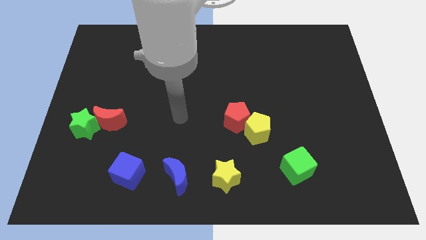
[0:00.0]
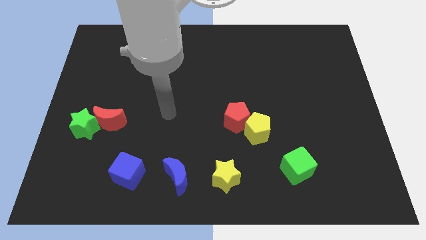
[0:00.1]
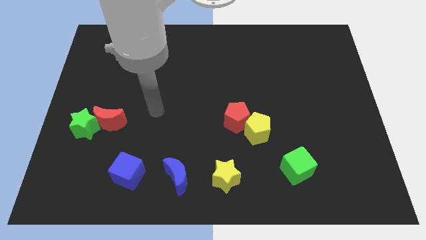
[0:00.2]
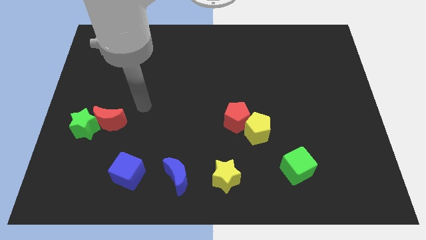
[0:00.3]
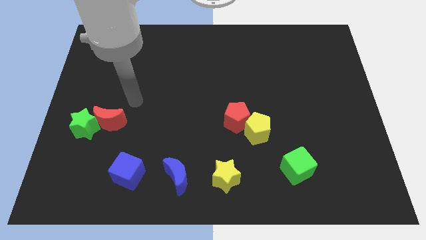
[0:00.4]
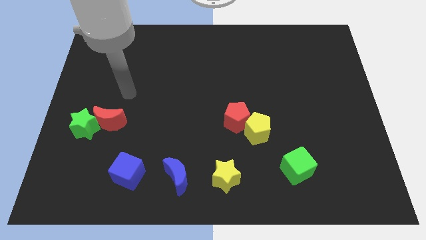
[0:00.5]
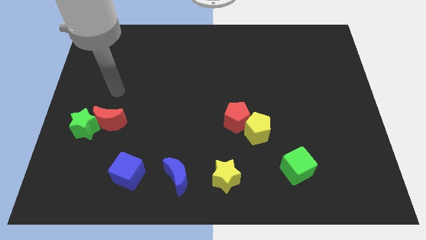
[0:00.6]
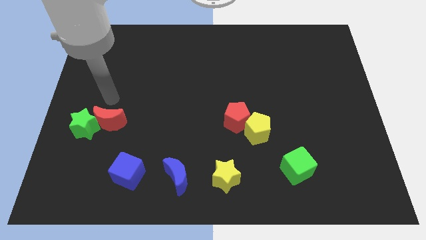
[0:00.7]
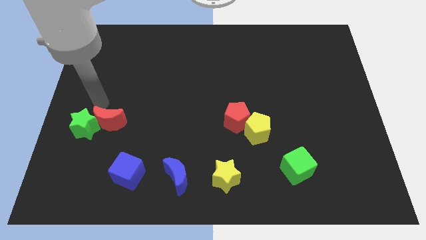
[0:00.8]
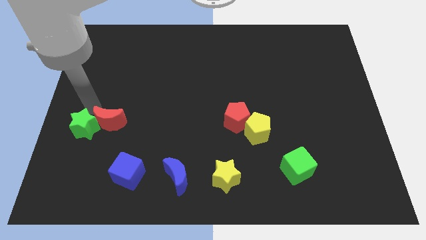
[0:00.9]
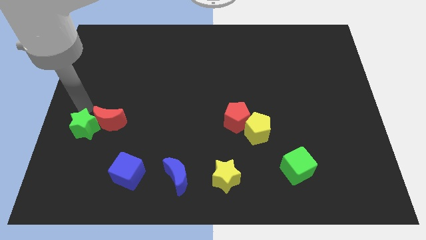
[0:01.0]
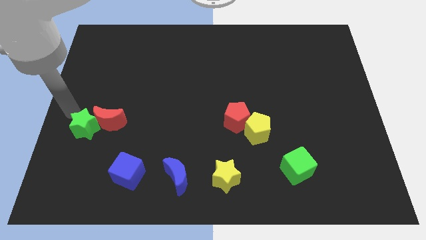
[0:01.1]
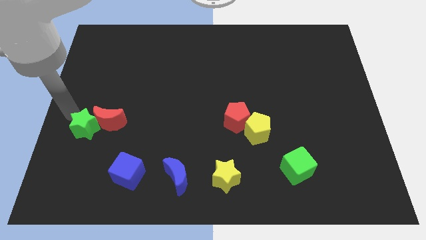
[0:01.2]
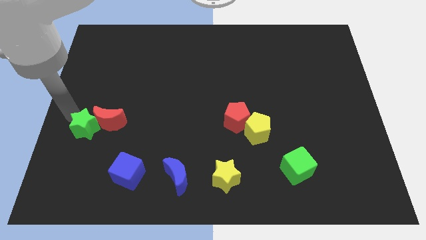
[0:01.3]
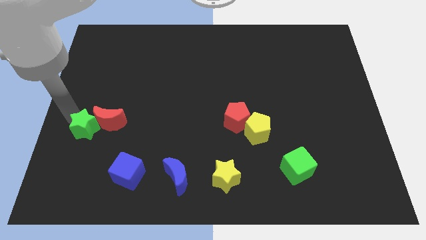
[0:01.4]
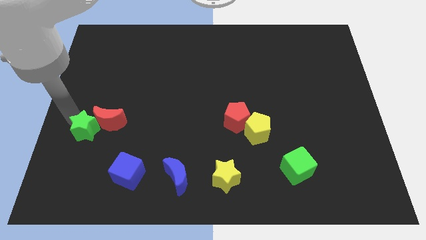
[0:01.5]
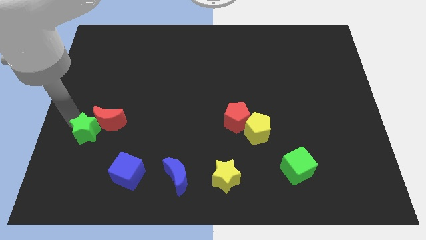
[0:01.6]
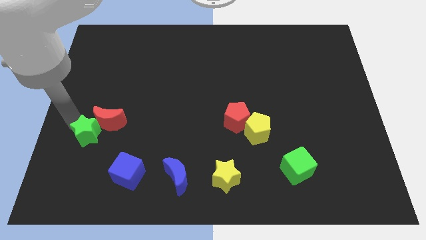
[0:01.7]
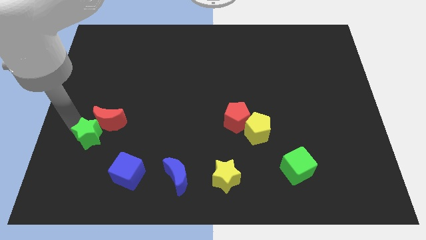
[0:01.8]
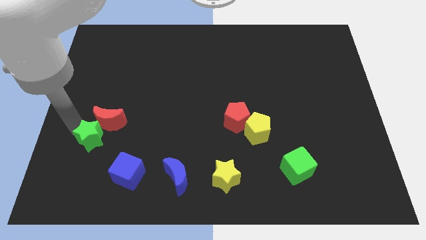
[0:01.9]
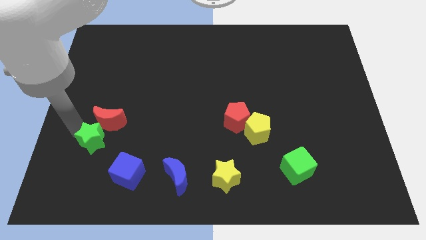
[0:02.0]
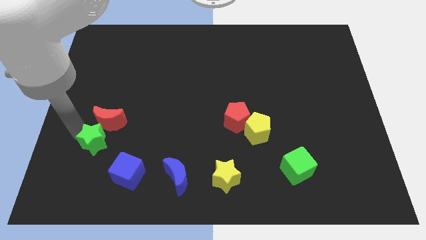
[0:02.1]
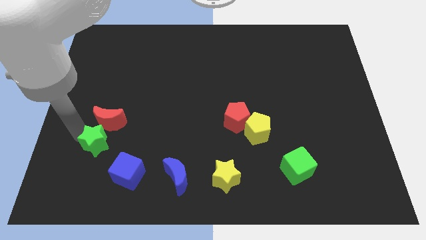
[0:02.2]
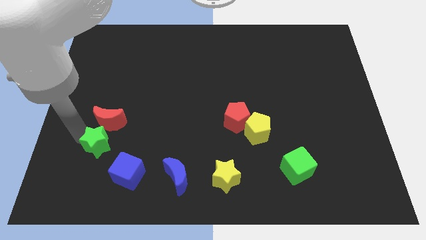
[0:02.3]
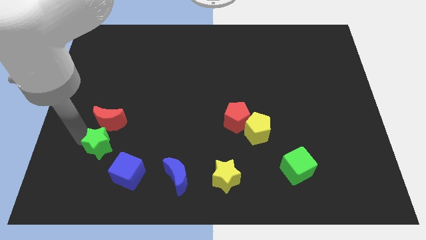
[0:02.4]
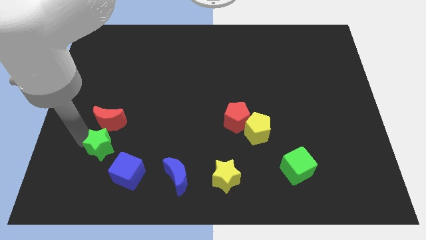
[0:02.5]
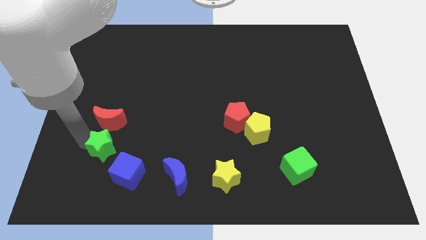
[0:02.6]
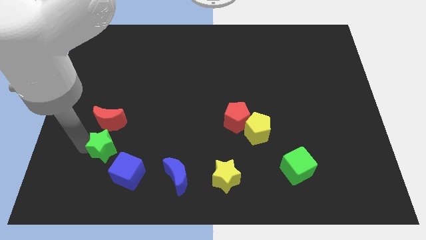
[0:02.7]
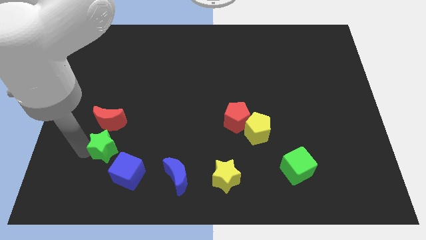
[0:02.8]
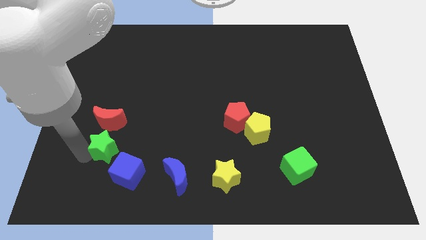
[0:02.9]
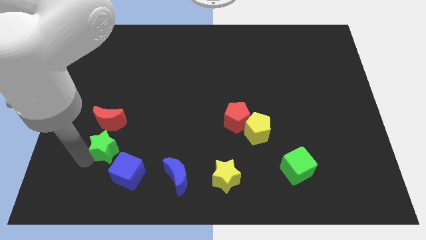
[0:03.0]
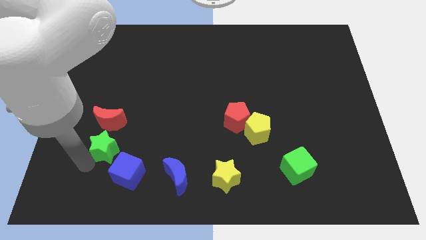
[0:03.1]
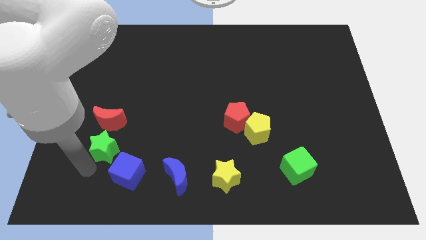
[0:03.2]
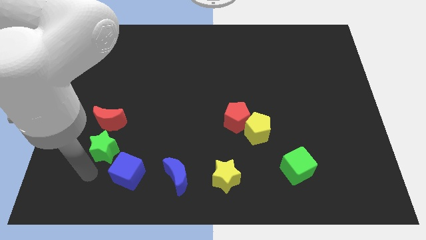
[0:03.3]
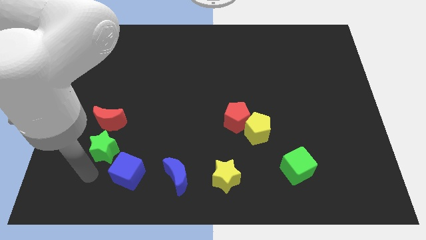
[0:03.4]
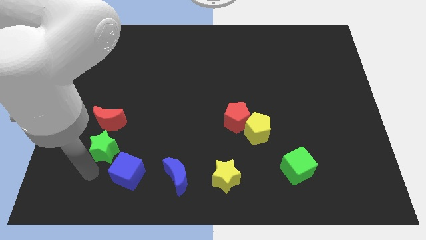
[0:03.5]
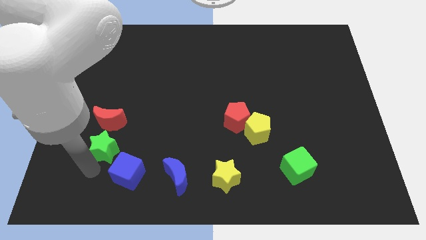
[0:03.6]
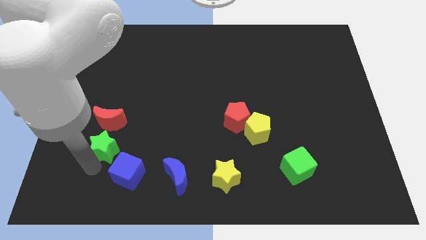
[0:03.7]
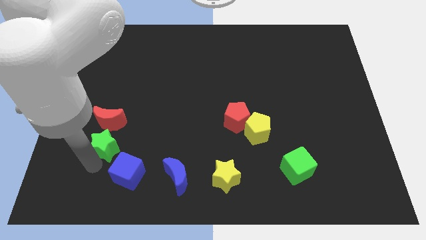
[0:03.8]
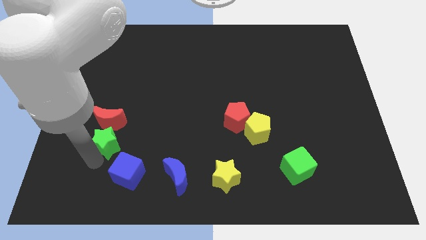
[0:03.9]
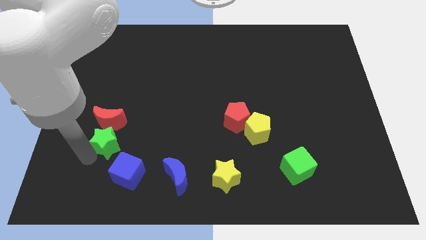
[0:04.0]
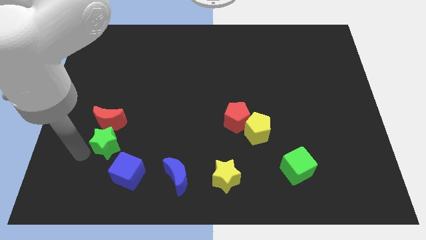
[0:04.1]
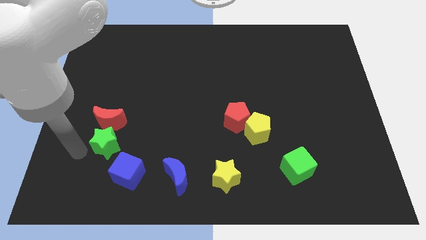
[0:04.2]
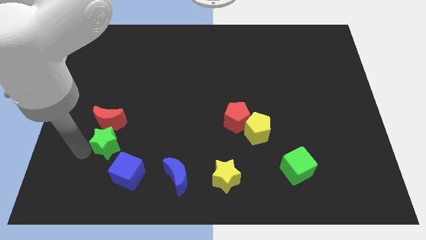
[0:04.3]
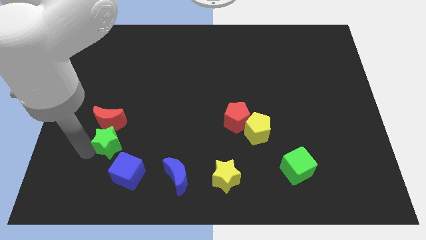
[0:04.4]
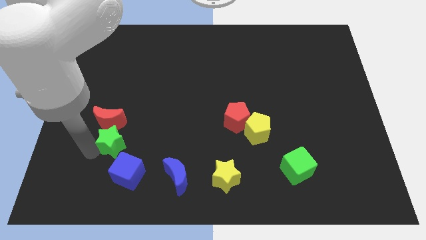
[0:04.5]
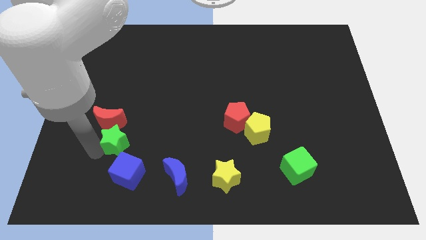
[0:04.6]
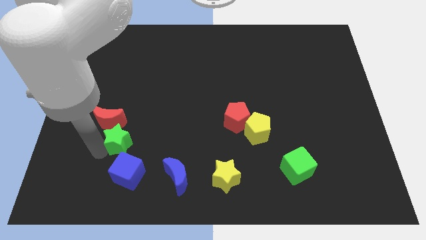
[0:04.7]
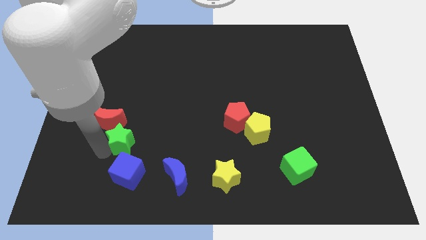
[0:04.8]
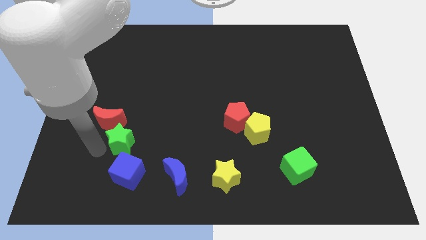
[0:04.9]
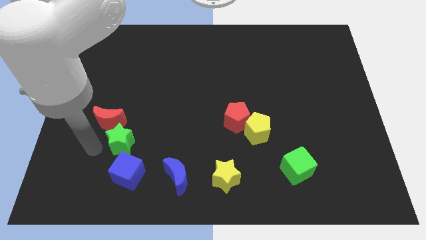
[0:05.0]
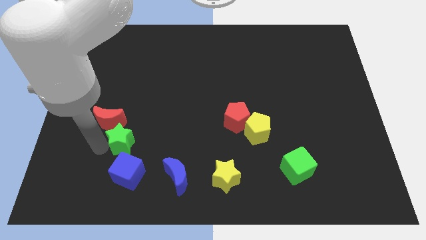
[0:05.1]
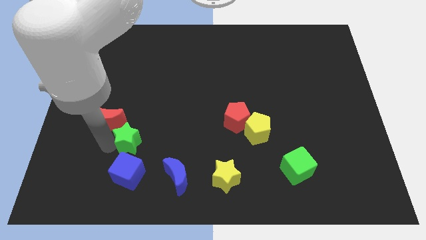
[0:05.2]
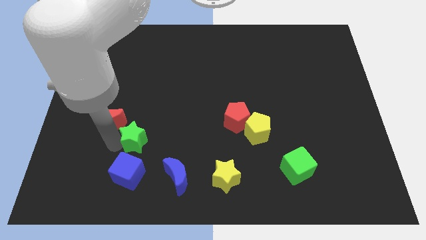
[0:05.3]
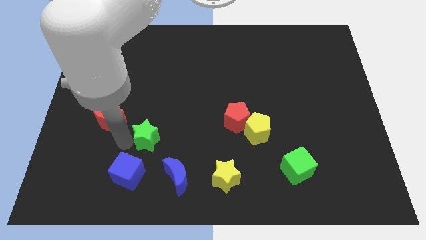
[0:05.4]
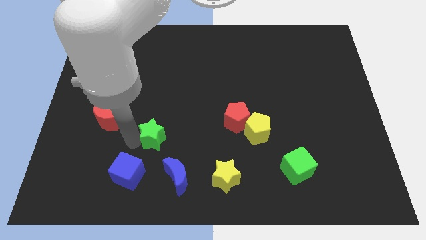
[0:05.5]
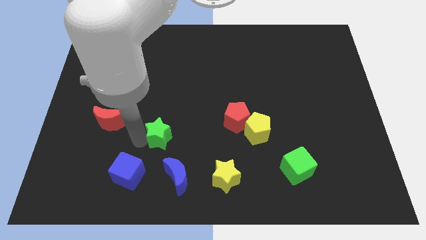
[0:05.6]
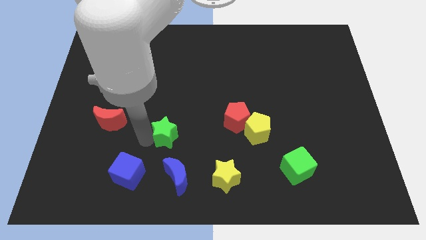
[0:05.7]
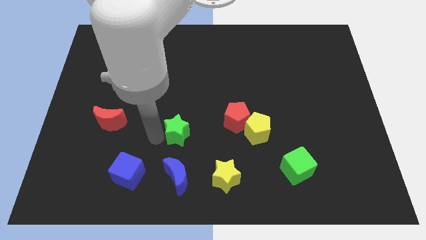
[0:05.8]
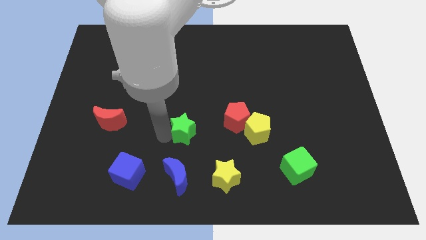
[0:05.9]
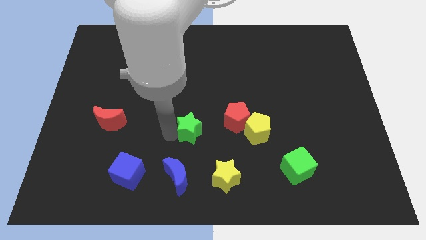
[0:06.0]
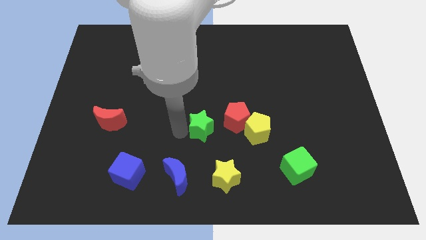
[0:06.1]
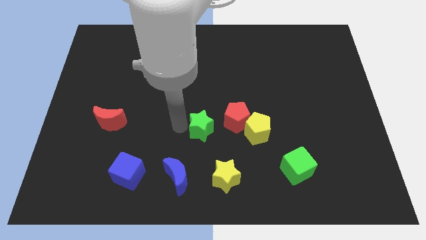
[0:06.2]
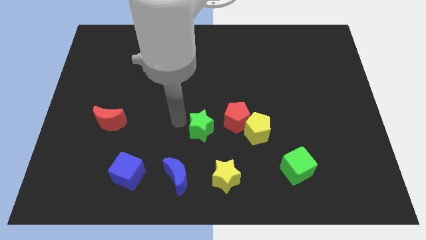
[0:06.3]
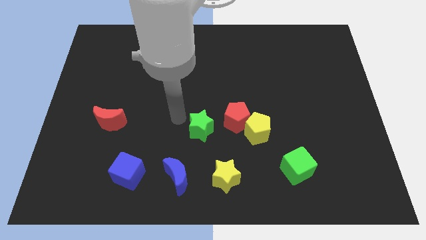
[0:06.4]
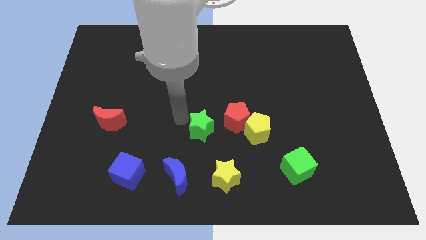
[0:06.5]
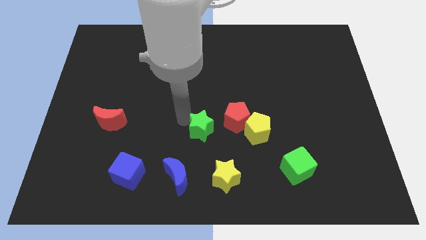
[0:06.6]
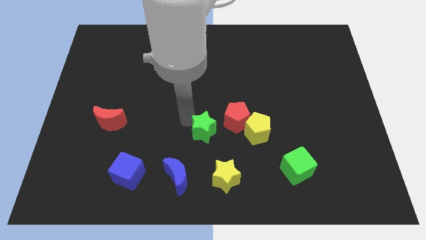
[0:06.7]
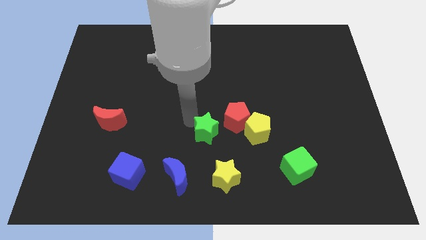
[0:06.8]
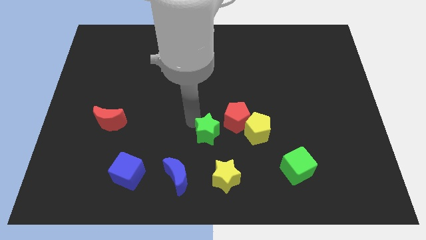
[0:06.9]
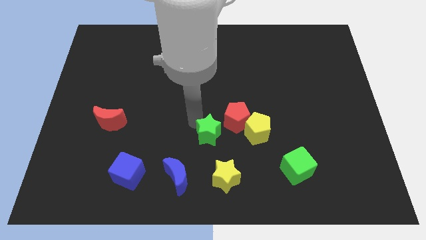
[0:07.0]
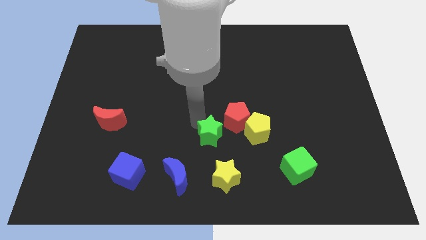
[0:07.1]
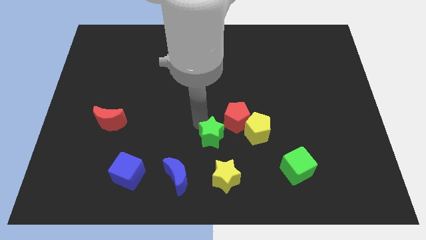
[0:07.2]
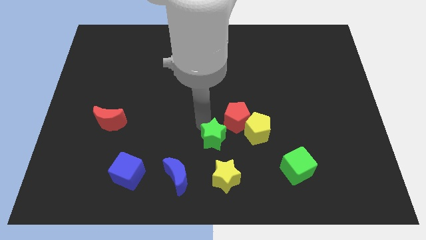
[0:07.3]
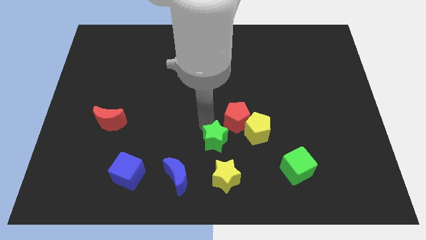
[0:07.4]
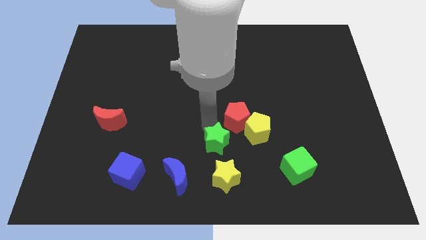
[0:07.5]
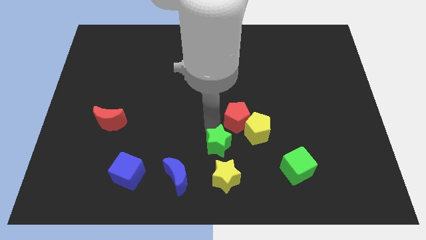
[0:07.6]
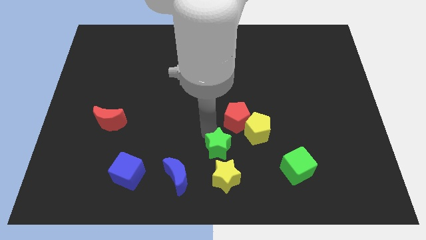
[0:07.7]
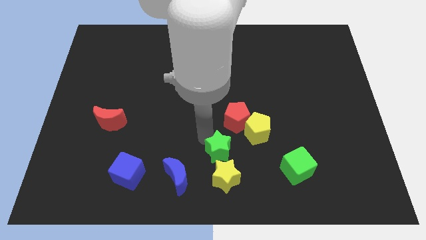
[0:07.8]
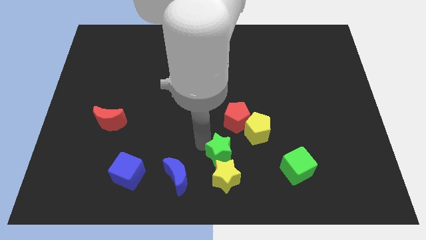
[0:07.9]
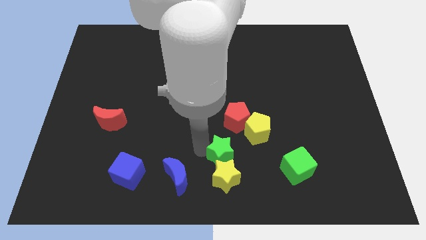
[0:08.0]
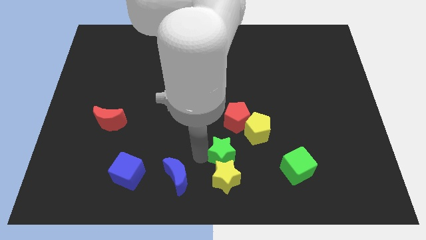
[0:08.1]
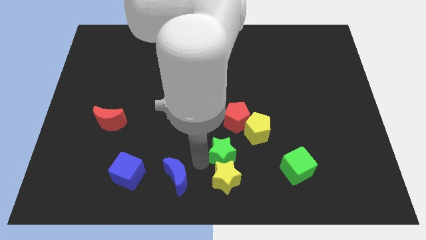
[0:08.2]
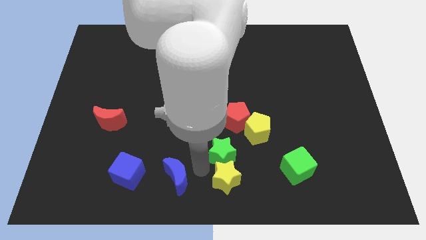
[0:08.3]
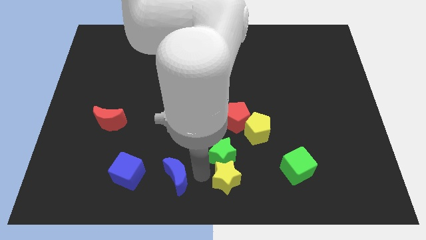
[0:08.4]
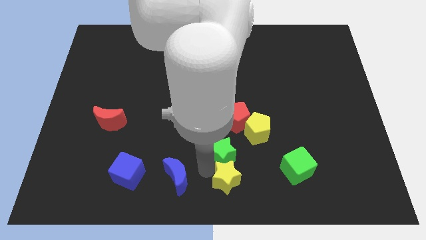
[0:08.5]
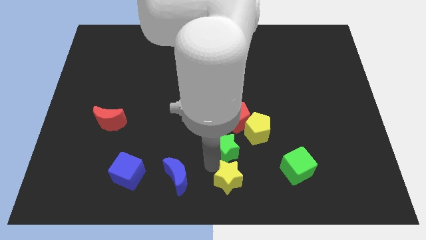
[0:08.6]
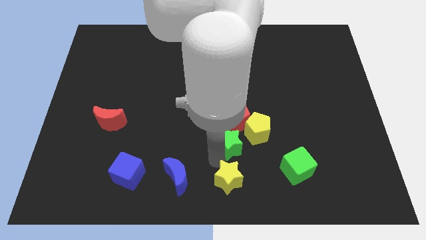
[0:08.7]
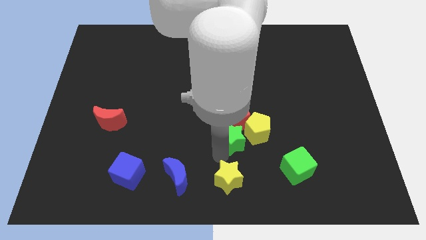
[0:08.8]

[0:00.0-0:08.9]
slide the green star next to the yellow pentagon
